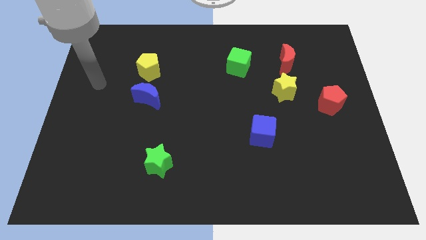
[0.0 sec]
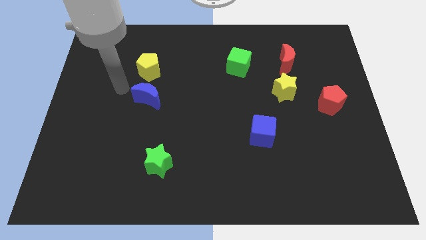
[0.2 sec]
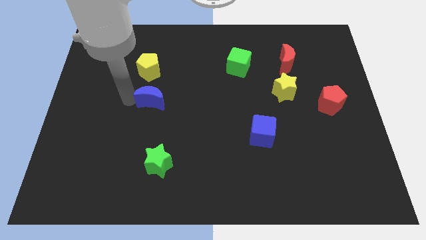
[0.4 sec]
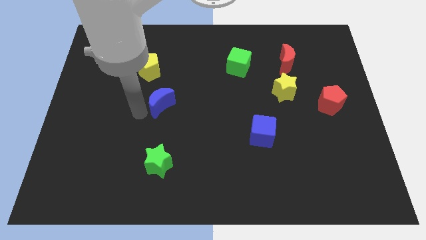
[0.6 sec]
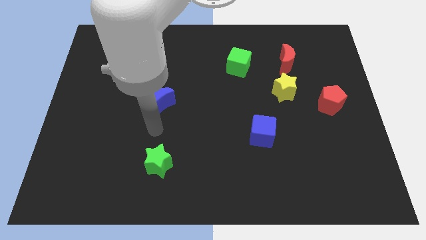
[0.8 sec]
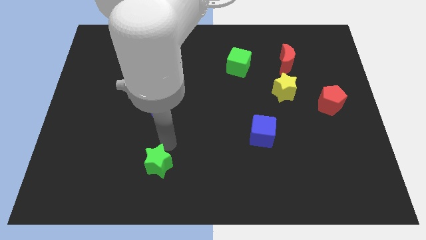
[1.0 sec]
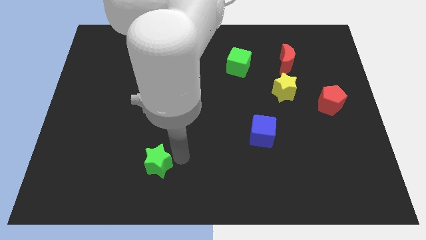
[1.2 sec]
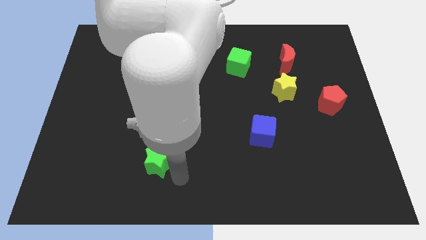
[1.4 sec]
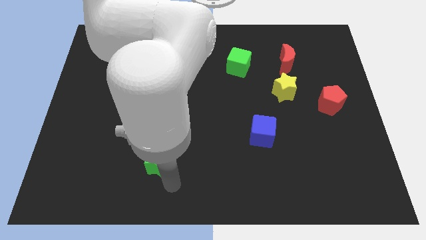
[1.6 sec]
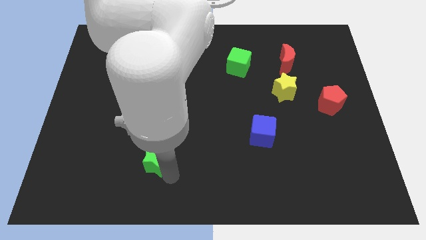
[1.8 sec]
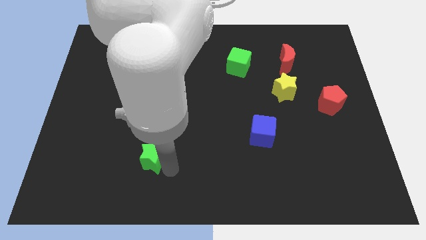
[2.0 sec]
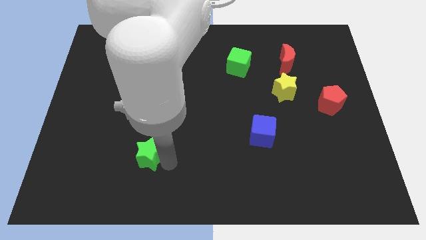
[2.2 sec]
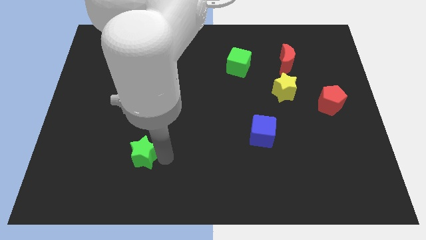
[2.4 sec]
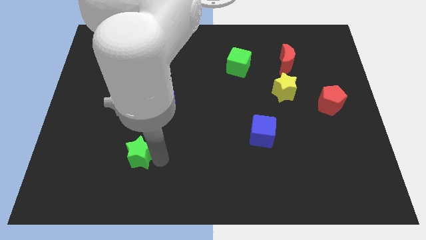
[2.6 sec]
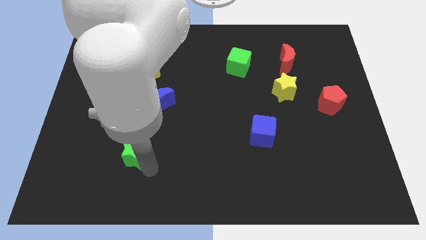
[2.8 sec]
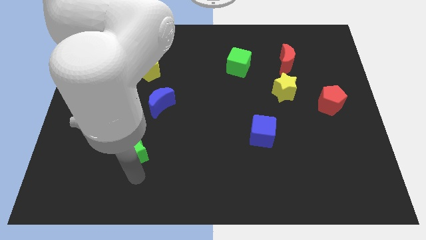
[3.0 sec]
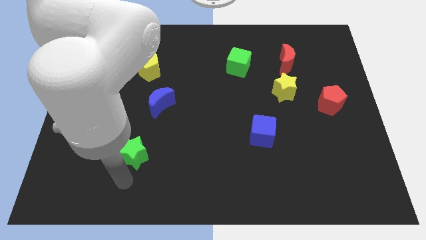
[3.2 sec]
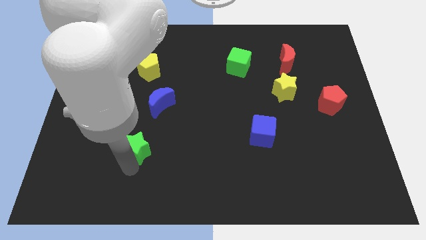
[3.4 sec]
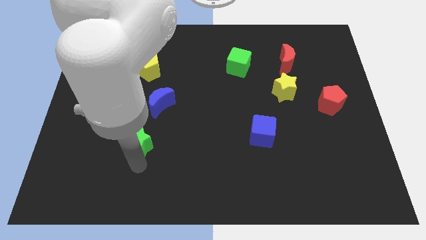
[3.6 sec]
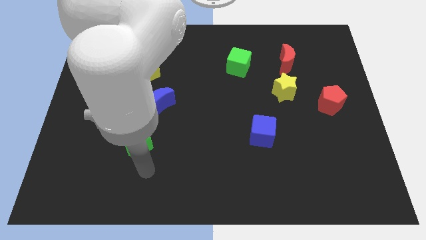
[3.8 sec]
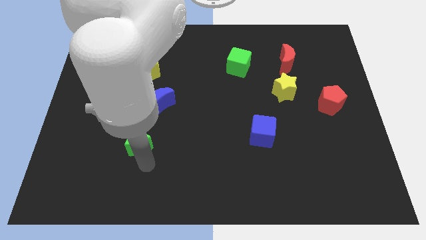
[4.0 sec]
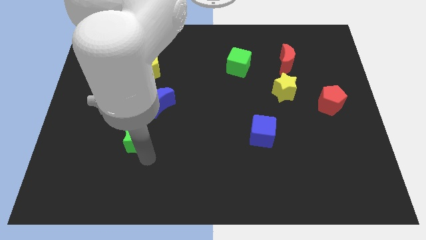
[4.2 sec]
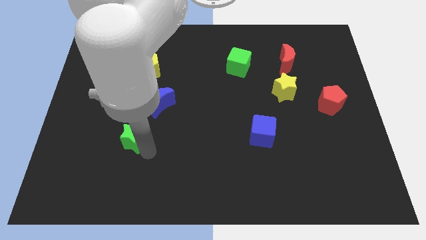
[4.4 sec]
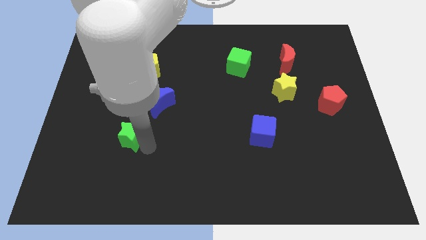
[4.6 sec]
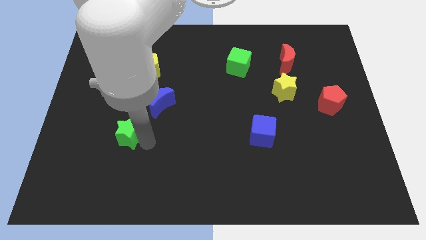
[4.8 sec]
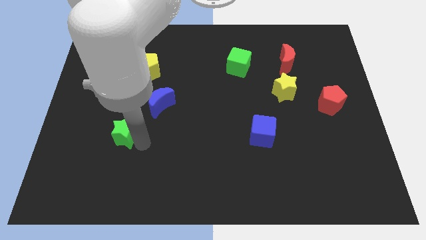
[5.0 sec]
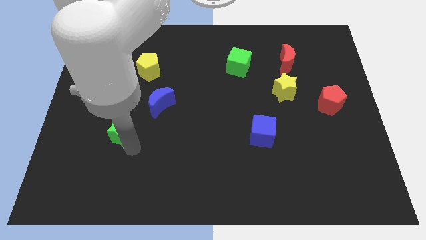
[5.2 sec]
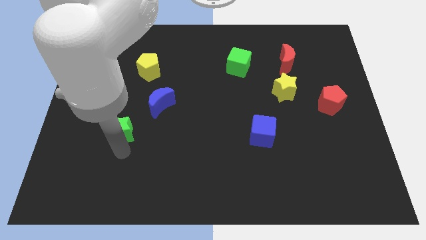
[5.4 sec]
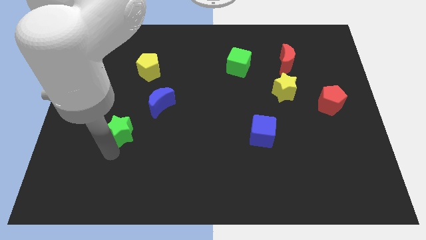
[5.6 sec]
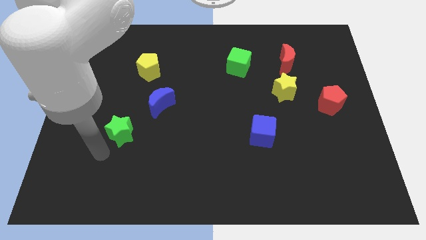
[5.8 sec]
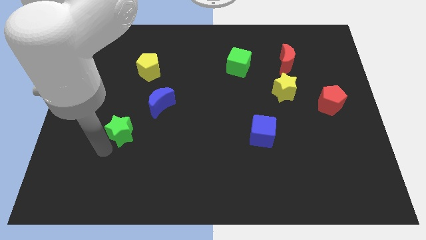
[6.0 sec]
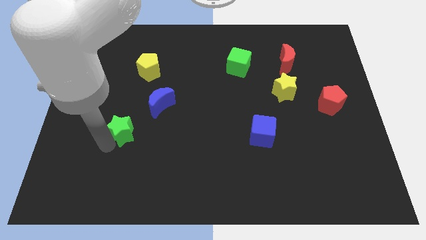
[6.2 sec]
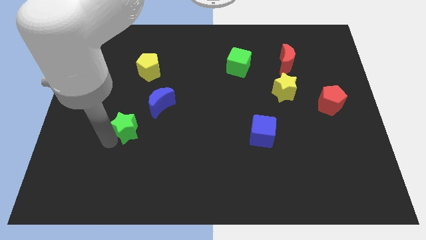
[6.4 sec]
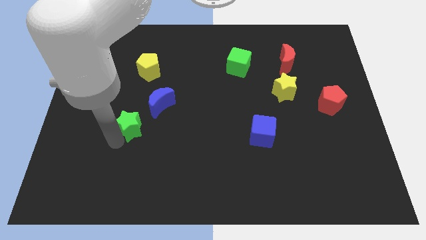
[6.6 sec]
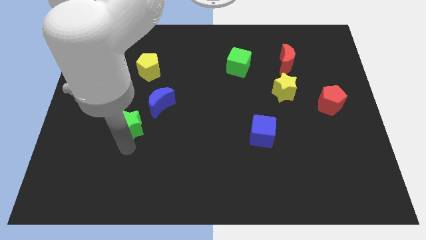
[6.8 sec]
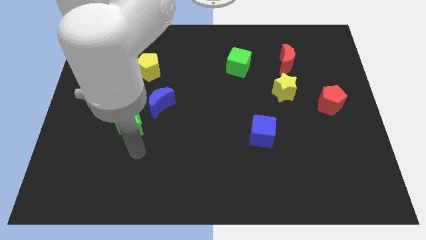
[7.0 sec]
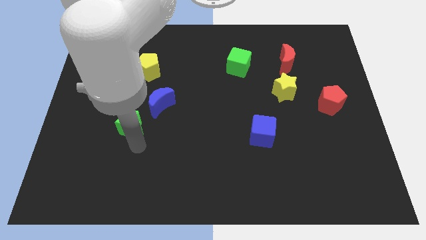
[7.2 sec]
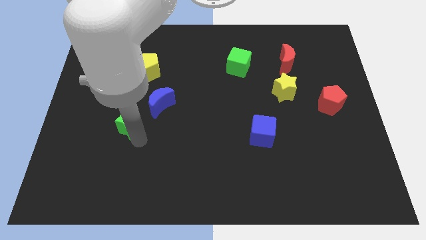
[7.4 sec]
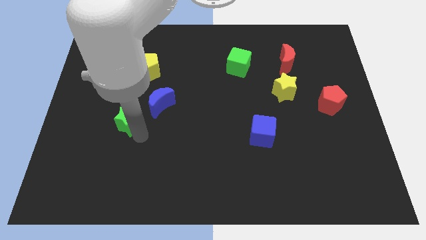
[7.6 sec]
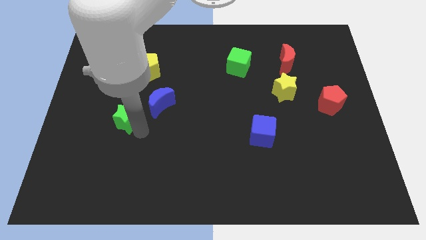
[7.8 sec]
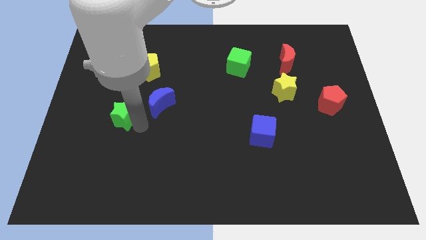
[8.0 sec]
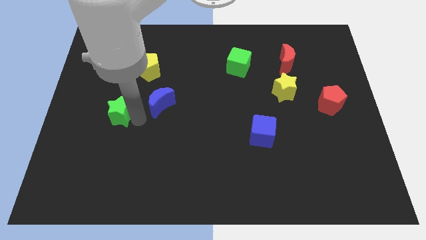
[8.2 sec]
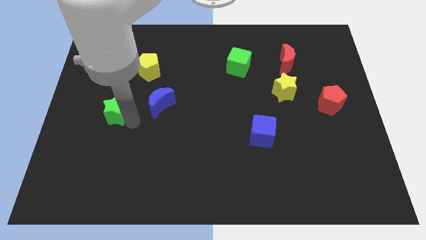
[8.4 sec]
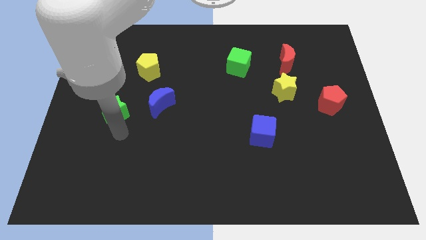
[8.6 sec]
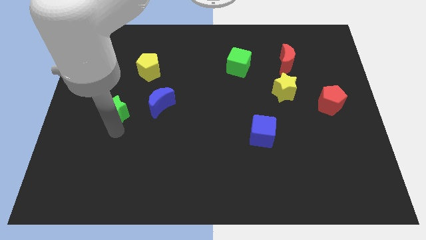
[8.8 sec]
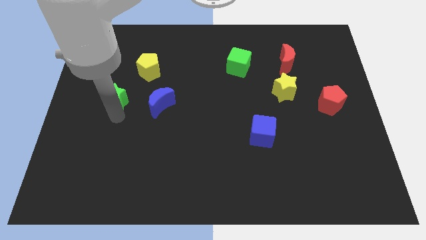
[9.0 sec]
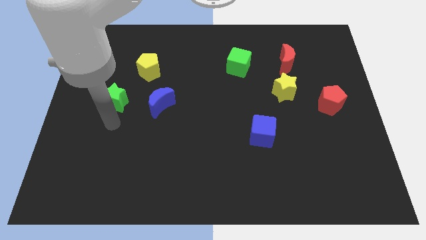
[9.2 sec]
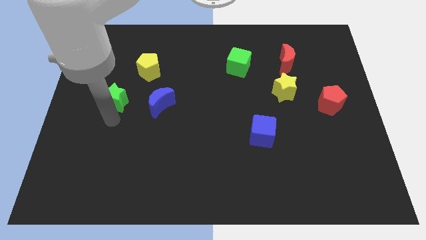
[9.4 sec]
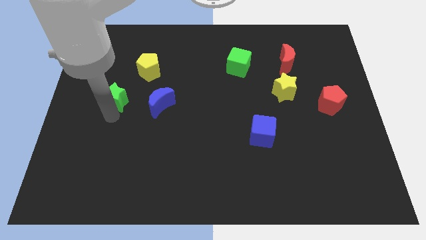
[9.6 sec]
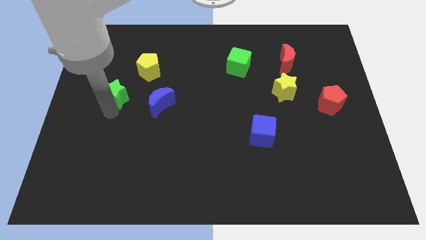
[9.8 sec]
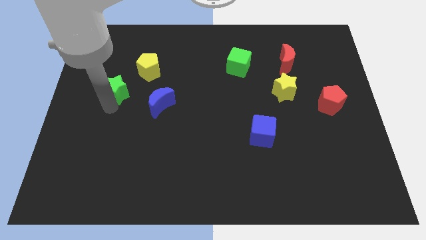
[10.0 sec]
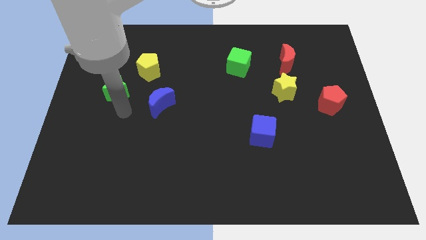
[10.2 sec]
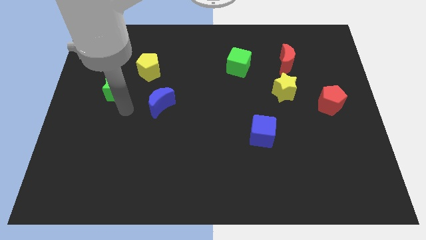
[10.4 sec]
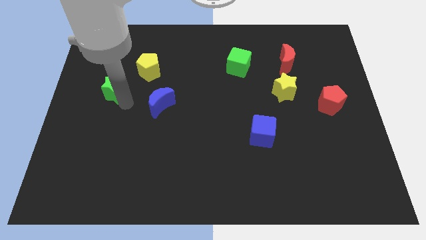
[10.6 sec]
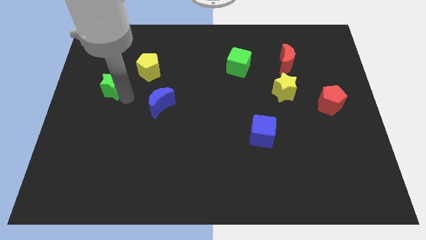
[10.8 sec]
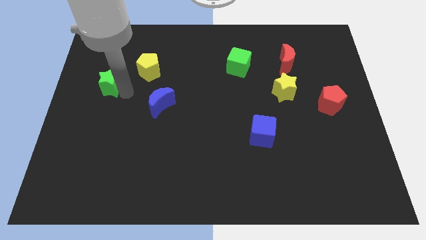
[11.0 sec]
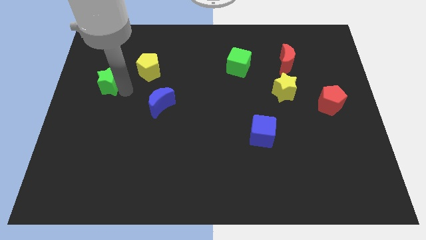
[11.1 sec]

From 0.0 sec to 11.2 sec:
slide the green star to the left side of the yellow pentagon

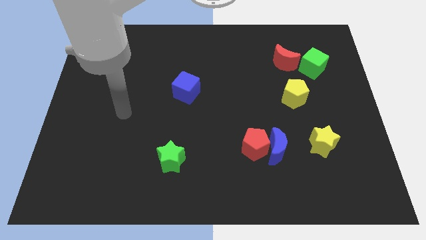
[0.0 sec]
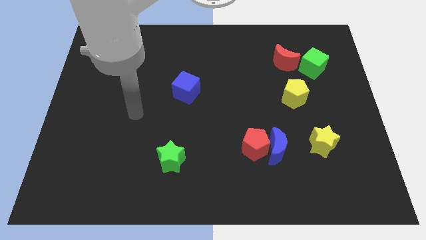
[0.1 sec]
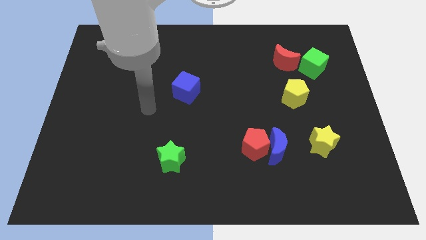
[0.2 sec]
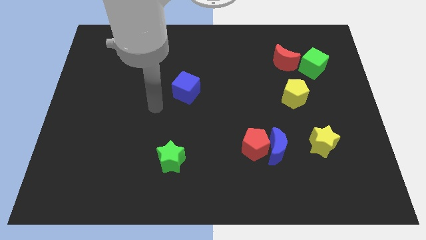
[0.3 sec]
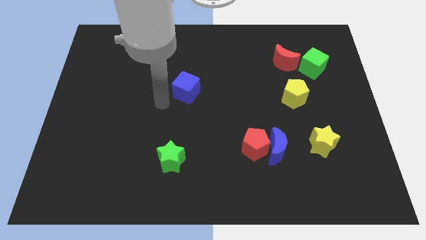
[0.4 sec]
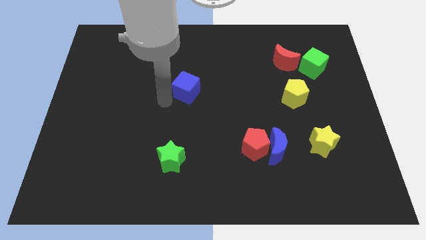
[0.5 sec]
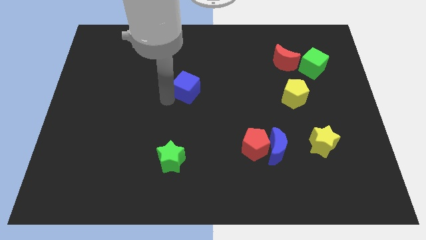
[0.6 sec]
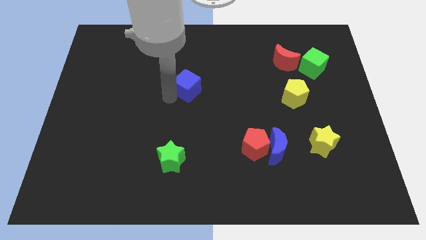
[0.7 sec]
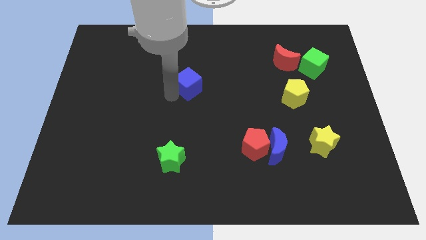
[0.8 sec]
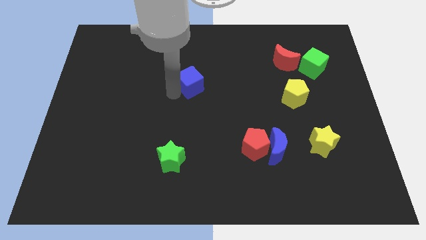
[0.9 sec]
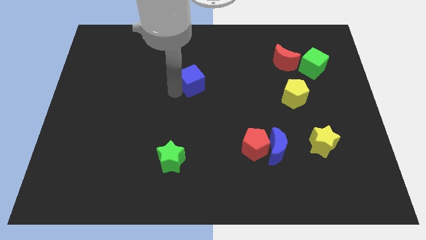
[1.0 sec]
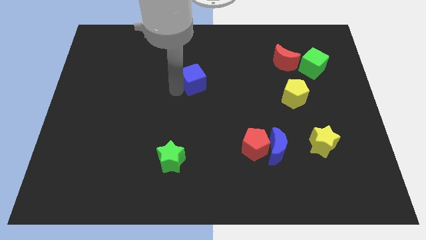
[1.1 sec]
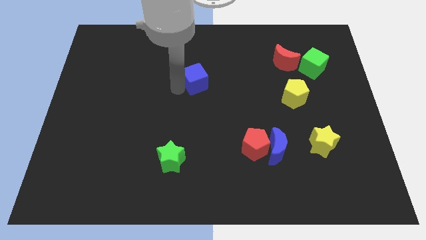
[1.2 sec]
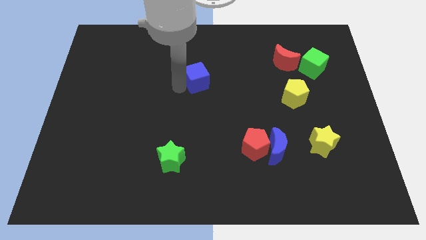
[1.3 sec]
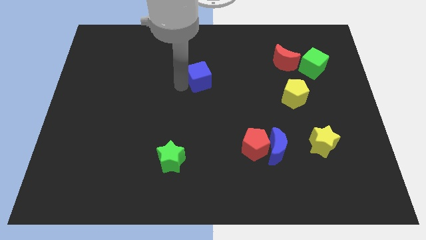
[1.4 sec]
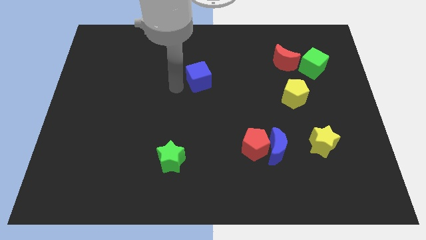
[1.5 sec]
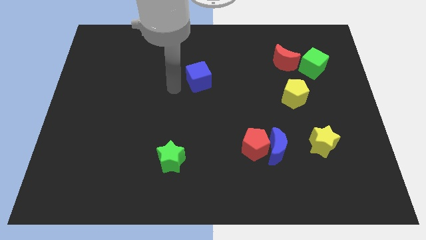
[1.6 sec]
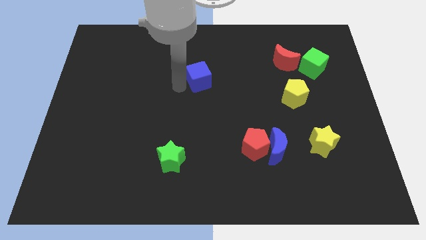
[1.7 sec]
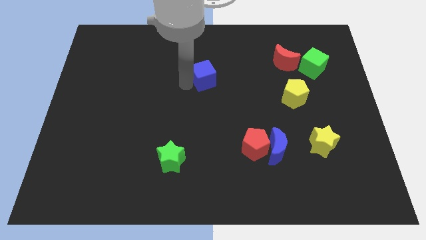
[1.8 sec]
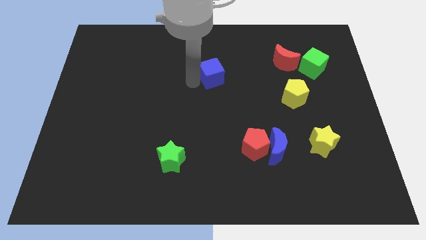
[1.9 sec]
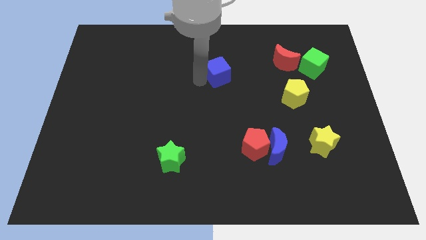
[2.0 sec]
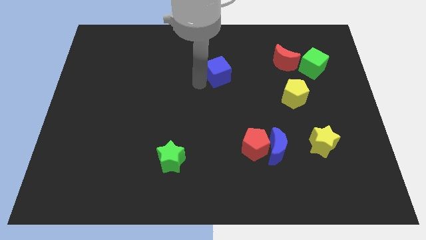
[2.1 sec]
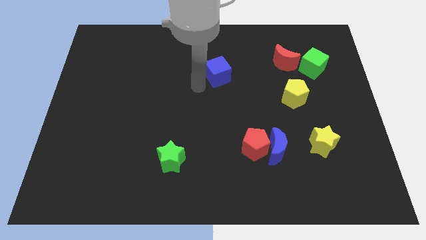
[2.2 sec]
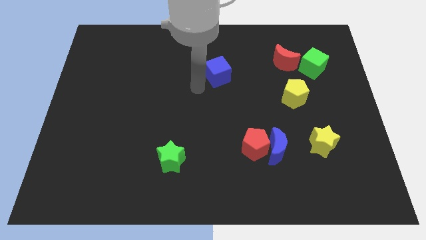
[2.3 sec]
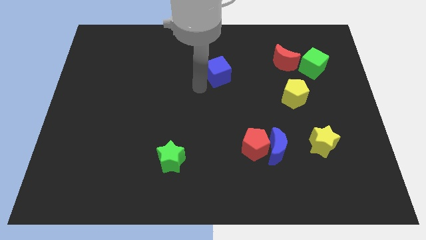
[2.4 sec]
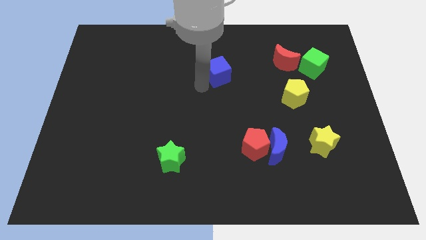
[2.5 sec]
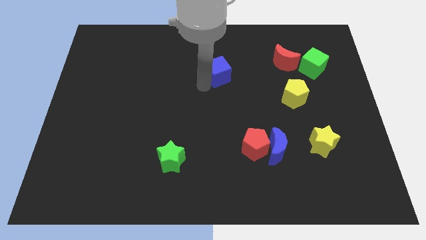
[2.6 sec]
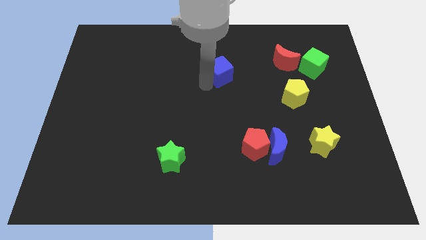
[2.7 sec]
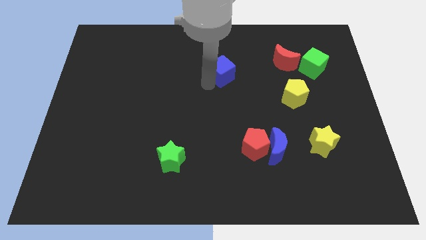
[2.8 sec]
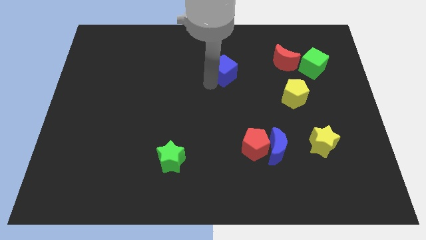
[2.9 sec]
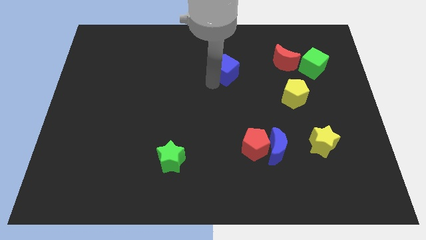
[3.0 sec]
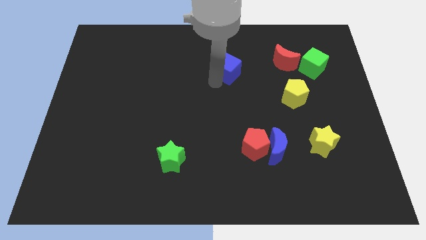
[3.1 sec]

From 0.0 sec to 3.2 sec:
push the blue cube left of the red moon
